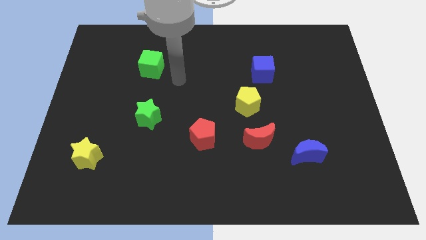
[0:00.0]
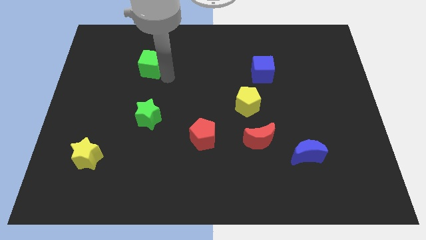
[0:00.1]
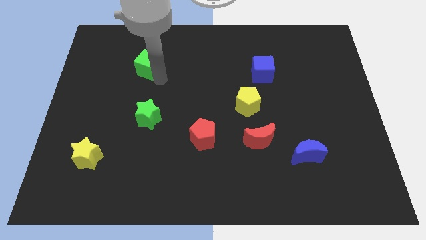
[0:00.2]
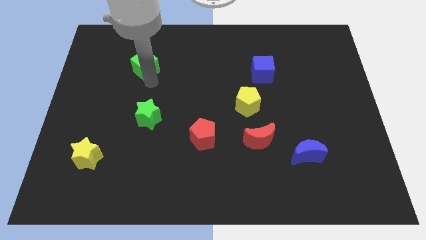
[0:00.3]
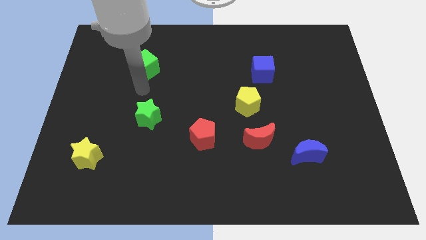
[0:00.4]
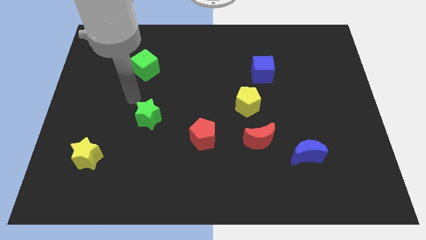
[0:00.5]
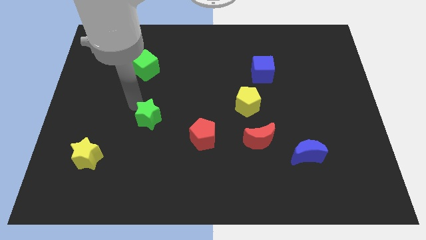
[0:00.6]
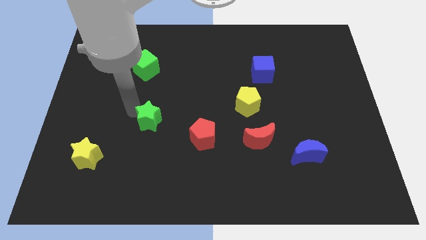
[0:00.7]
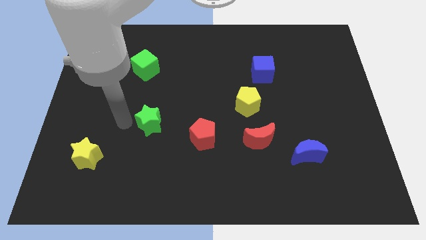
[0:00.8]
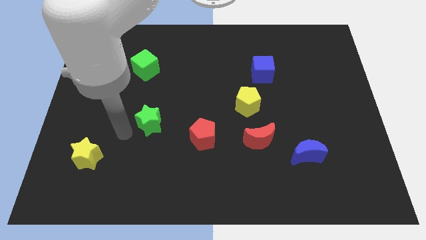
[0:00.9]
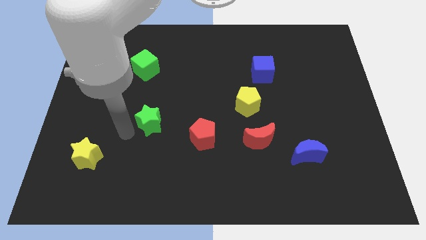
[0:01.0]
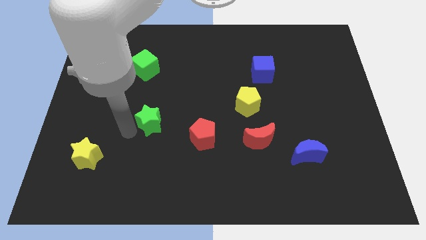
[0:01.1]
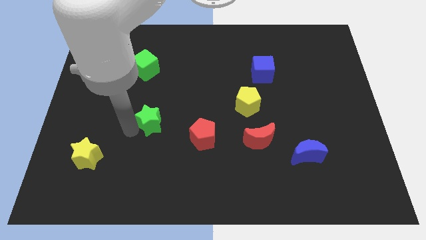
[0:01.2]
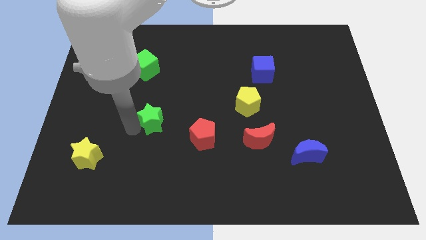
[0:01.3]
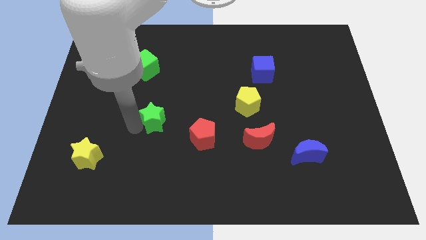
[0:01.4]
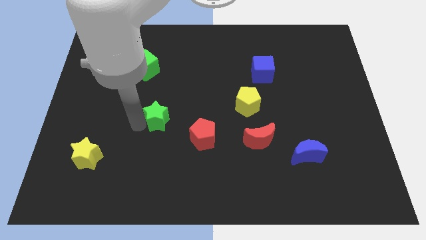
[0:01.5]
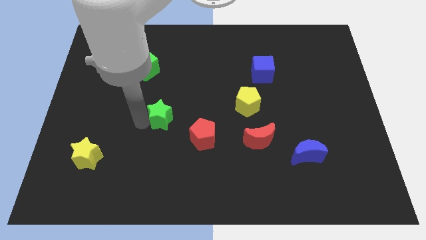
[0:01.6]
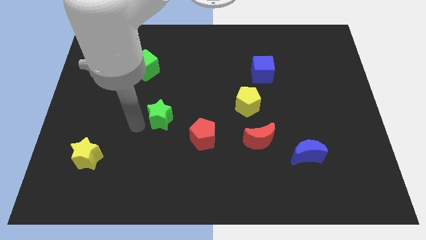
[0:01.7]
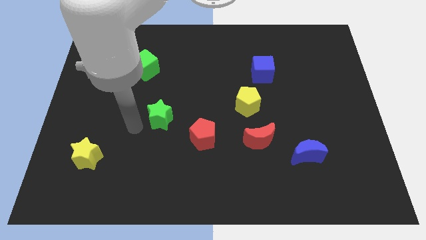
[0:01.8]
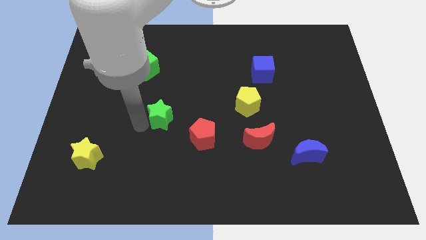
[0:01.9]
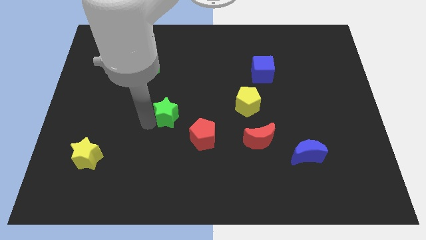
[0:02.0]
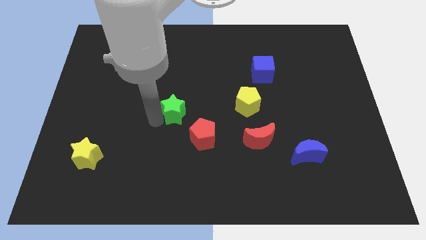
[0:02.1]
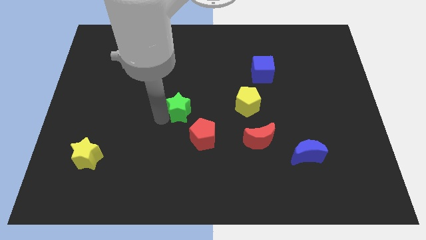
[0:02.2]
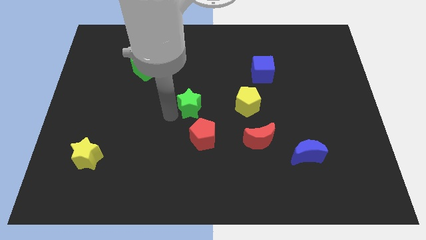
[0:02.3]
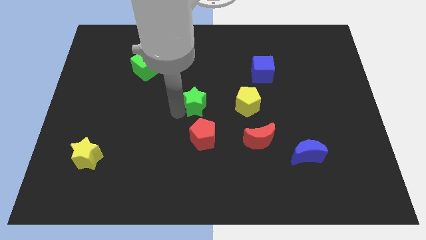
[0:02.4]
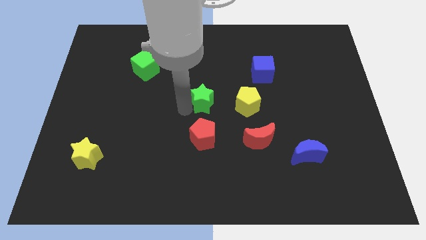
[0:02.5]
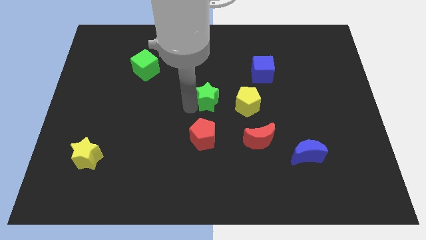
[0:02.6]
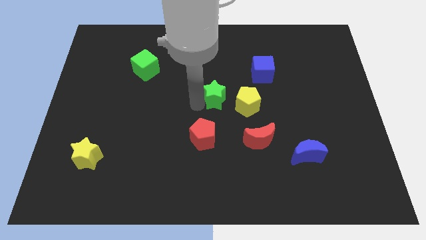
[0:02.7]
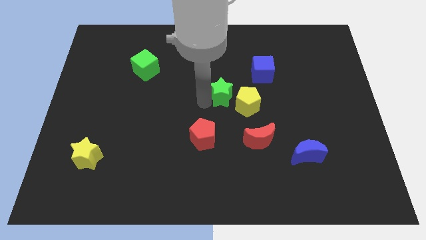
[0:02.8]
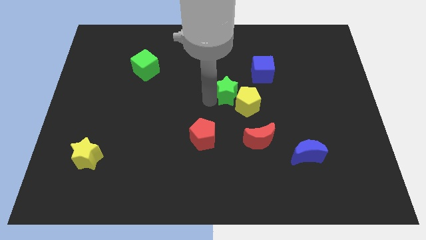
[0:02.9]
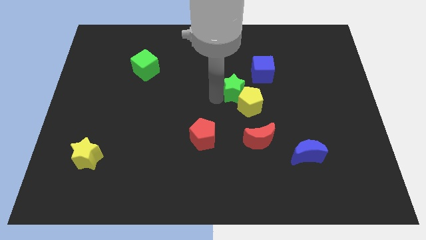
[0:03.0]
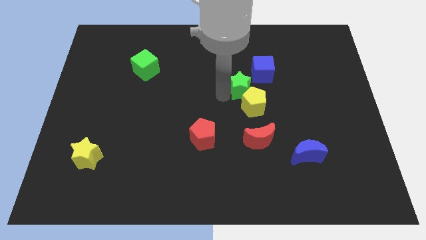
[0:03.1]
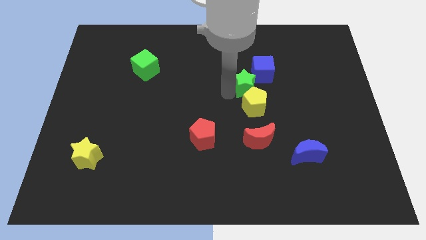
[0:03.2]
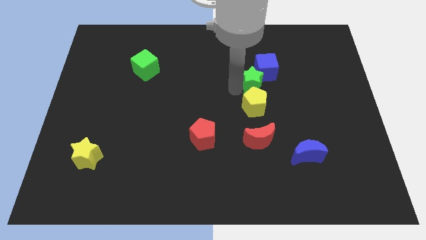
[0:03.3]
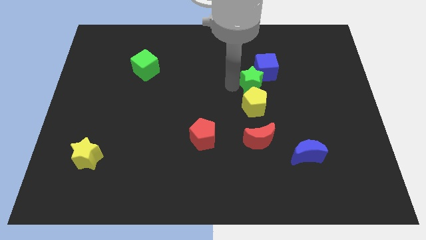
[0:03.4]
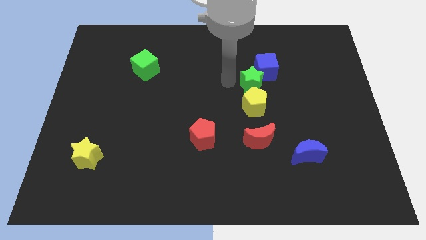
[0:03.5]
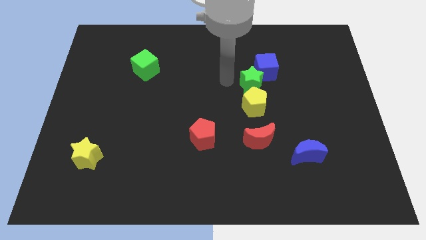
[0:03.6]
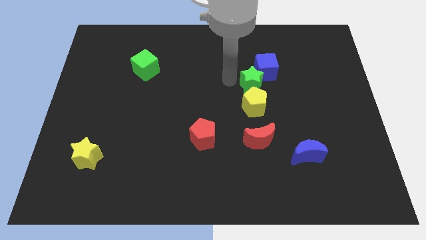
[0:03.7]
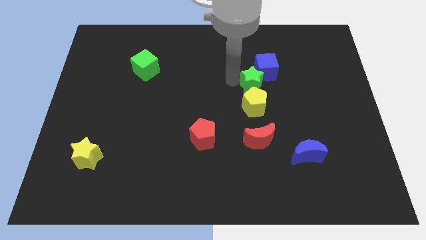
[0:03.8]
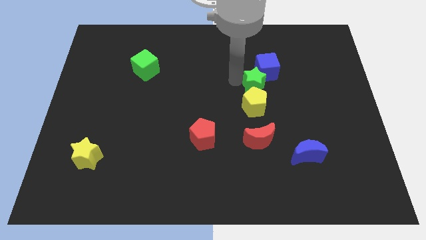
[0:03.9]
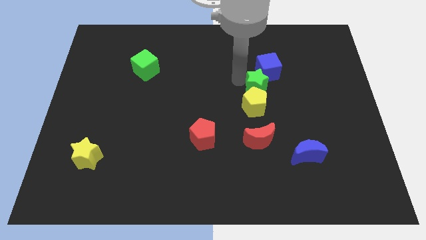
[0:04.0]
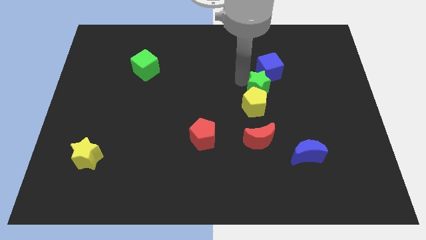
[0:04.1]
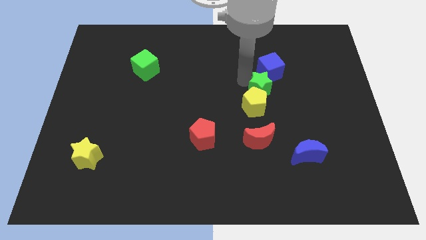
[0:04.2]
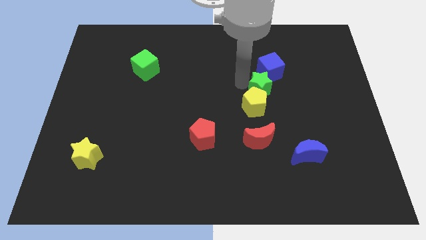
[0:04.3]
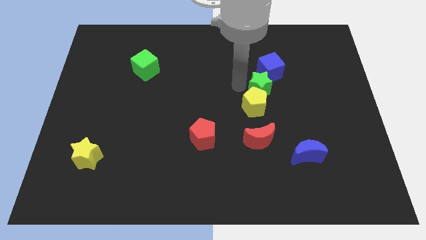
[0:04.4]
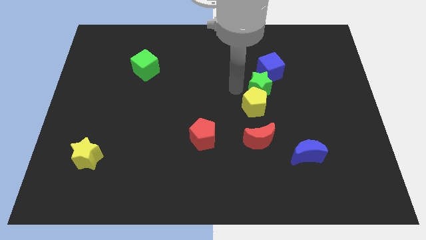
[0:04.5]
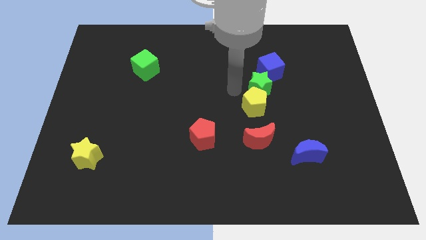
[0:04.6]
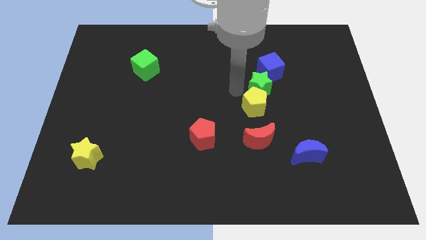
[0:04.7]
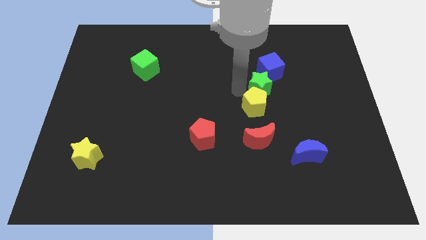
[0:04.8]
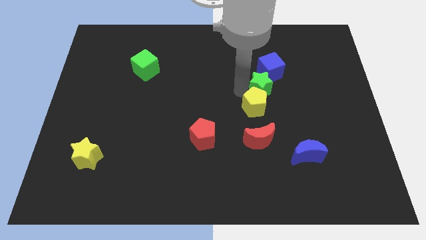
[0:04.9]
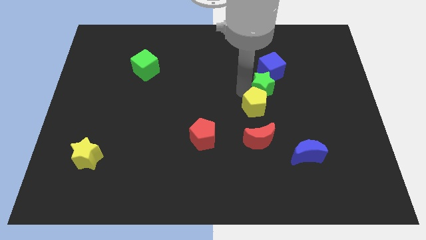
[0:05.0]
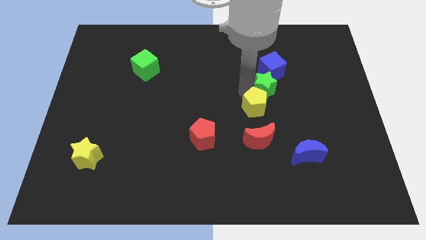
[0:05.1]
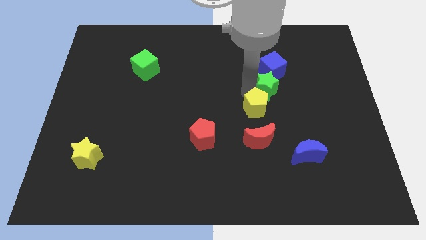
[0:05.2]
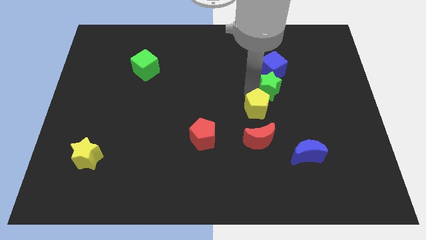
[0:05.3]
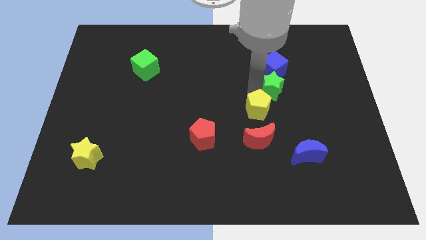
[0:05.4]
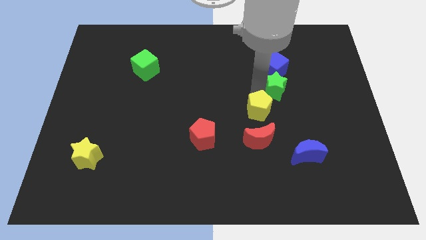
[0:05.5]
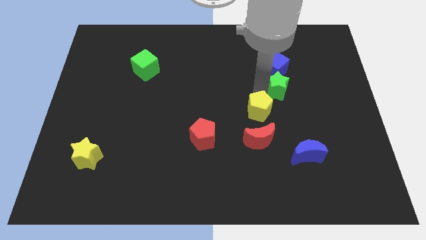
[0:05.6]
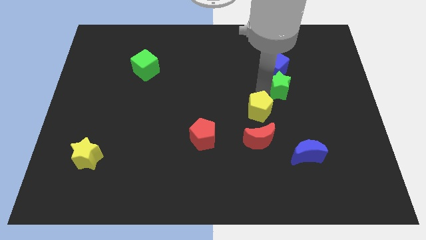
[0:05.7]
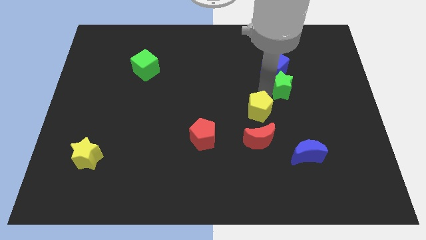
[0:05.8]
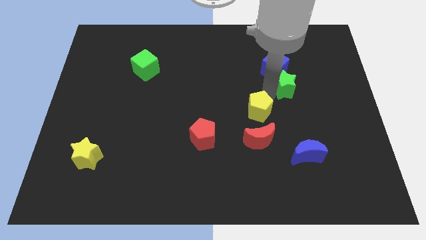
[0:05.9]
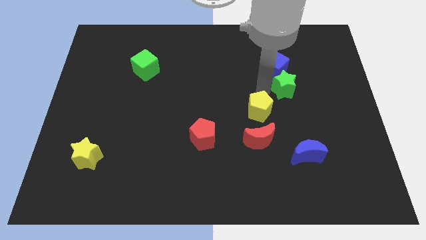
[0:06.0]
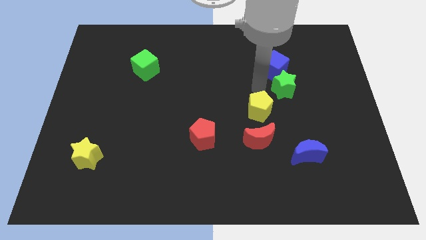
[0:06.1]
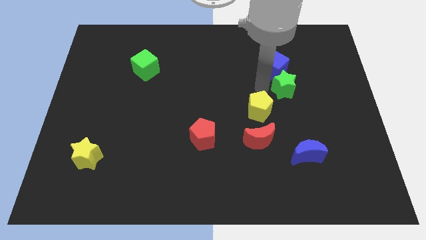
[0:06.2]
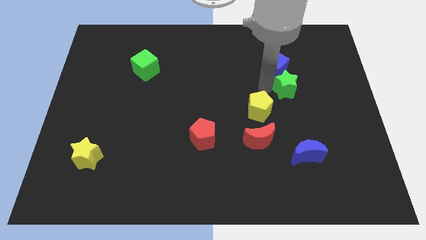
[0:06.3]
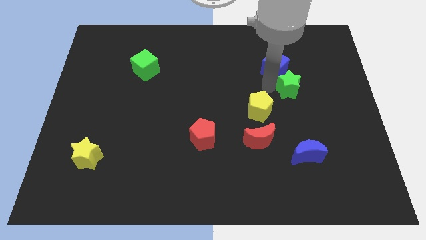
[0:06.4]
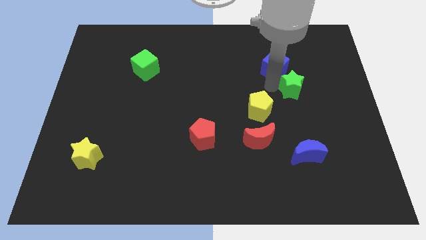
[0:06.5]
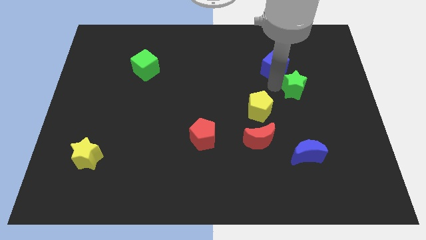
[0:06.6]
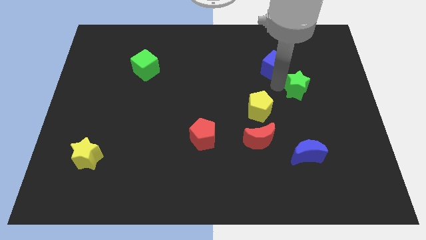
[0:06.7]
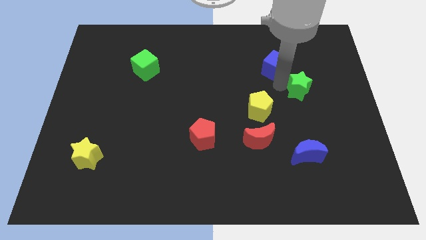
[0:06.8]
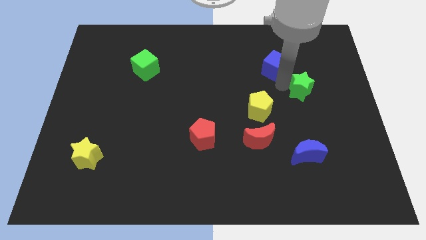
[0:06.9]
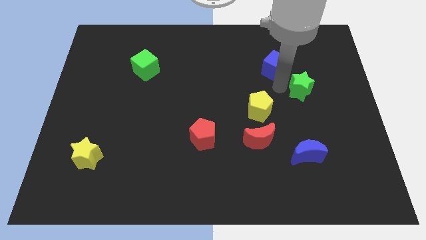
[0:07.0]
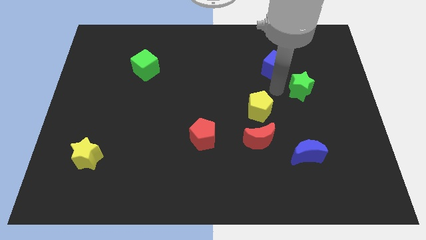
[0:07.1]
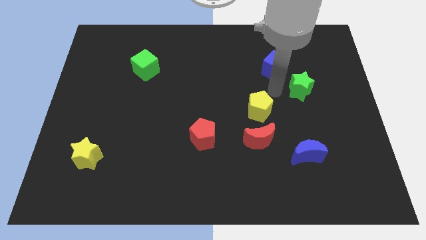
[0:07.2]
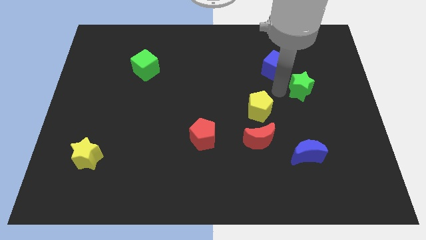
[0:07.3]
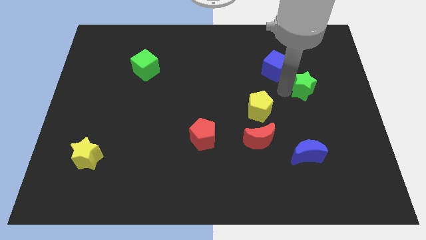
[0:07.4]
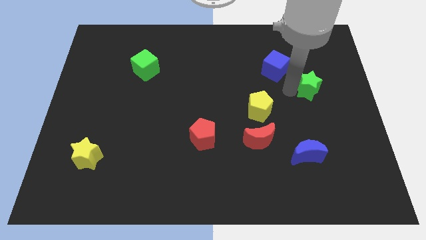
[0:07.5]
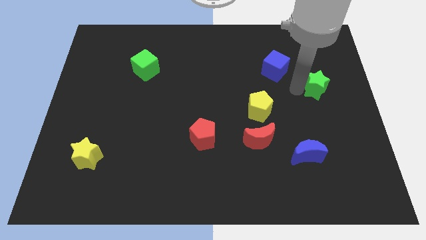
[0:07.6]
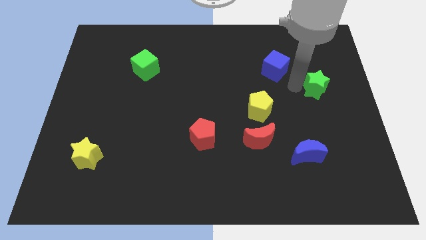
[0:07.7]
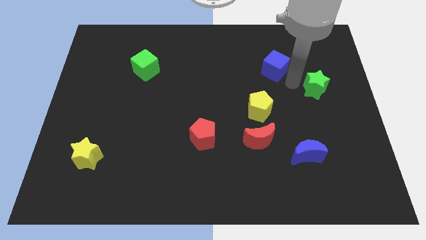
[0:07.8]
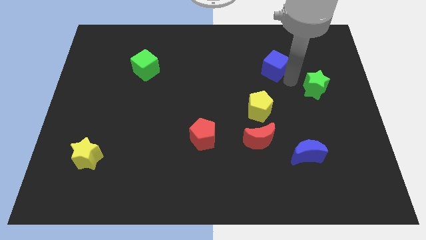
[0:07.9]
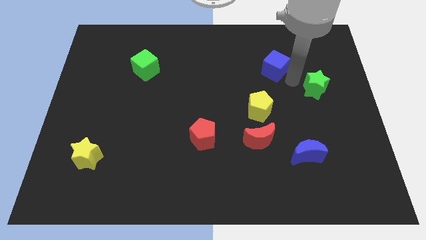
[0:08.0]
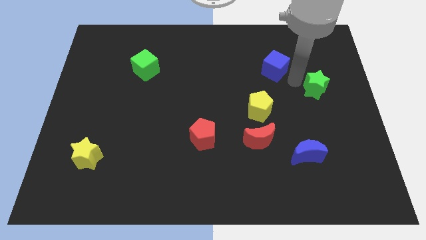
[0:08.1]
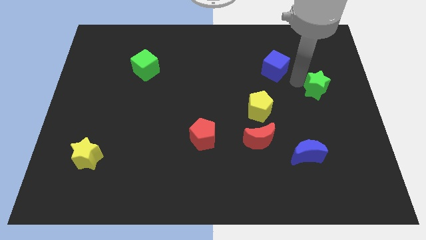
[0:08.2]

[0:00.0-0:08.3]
move the green star to the right side of the board
